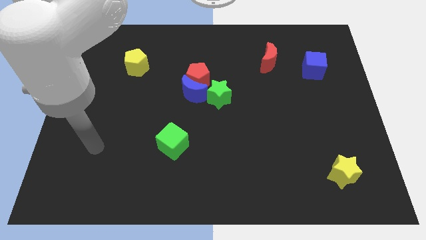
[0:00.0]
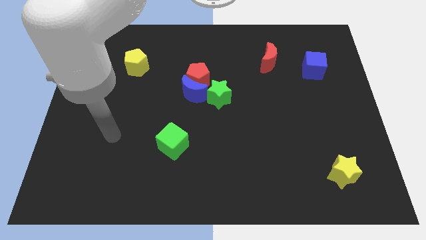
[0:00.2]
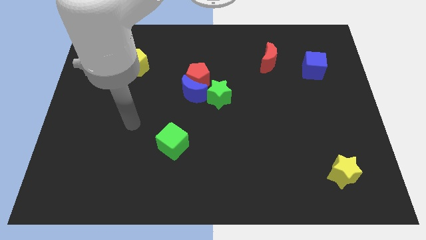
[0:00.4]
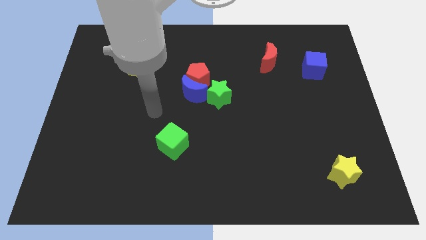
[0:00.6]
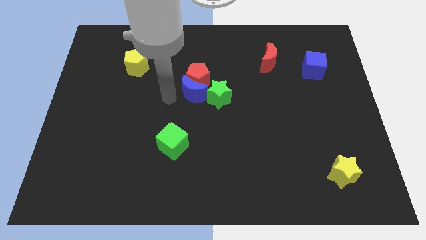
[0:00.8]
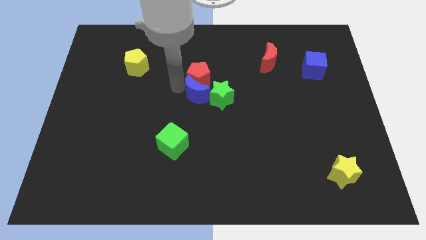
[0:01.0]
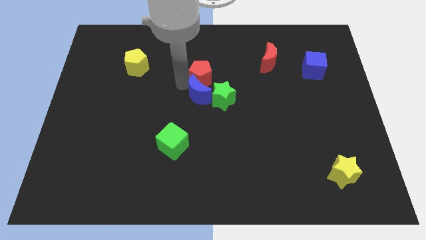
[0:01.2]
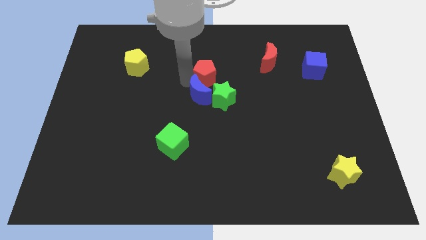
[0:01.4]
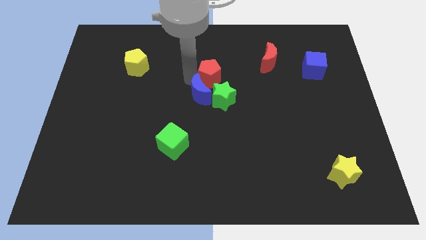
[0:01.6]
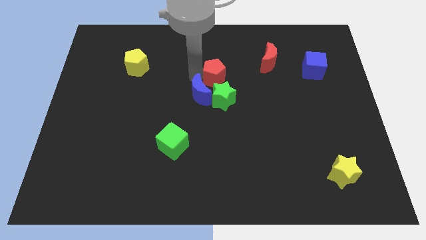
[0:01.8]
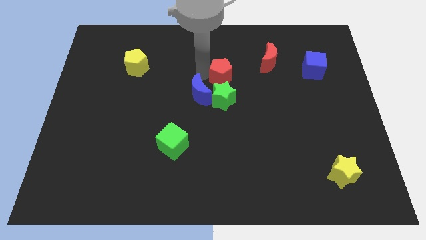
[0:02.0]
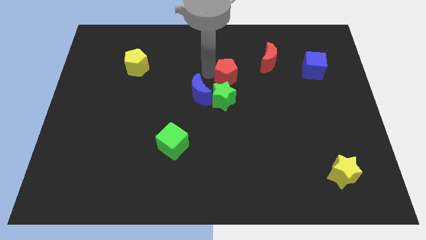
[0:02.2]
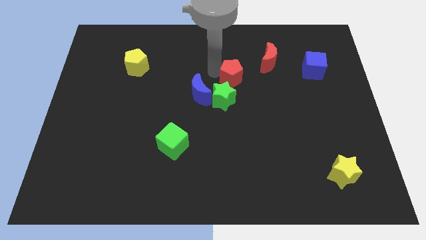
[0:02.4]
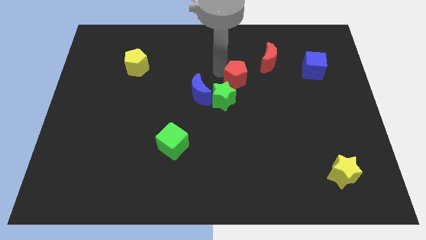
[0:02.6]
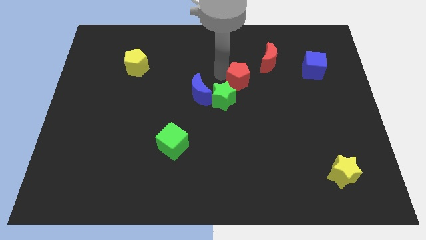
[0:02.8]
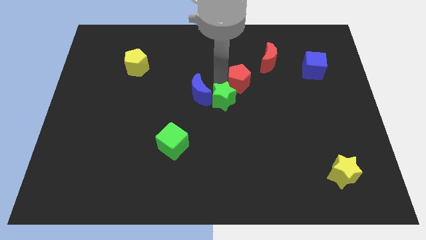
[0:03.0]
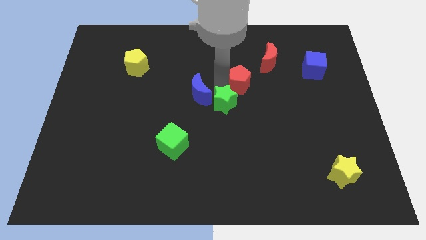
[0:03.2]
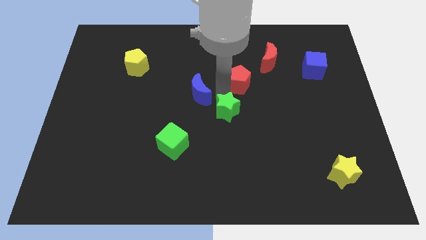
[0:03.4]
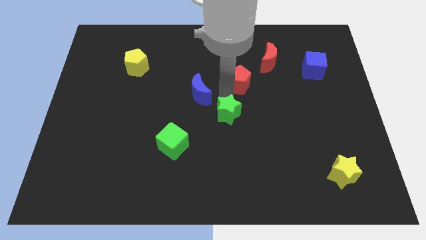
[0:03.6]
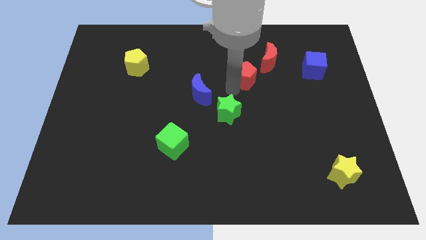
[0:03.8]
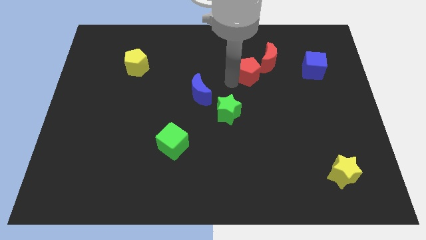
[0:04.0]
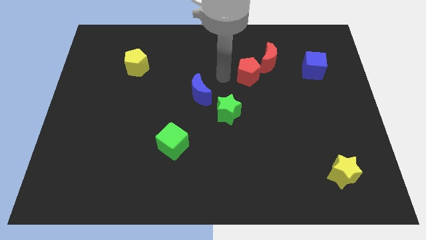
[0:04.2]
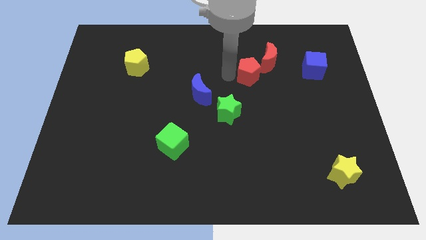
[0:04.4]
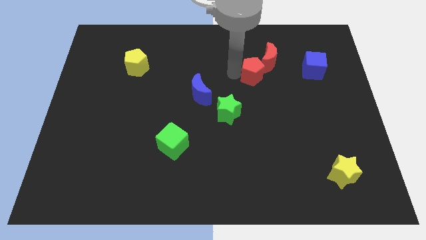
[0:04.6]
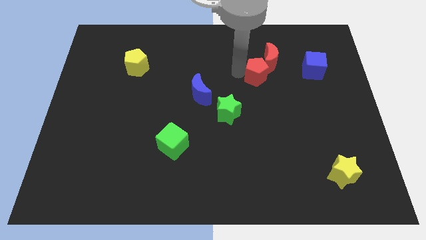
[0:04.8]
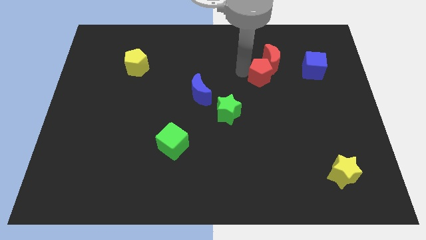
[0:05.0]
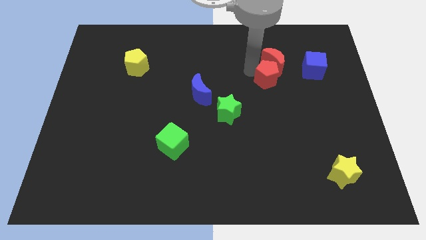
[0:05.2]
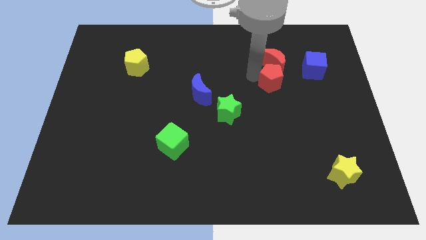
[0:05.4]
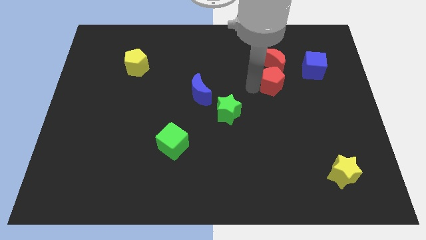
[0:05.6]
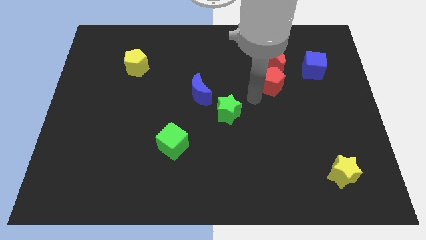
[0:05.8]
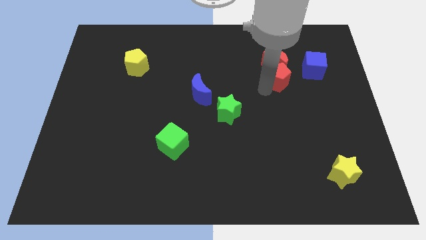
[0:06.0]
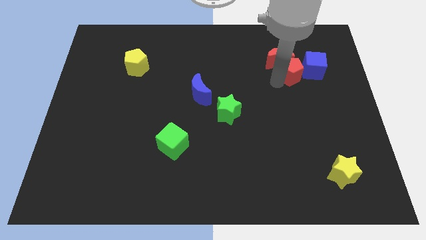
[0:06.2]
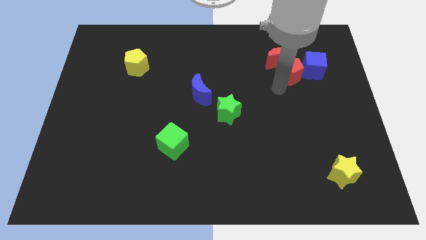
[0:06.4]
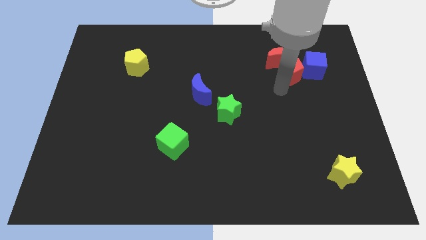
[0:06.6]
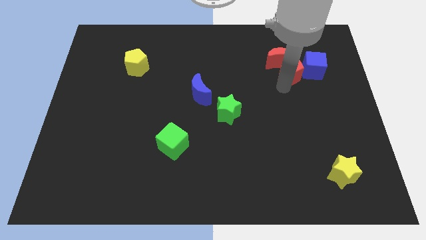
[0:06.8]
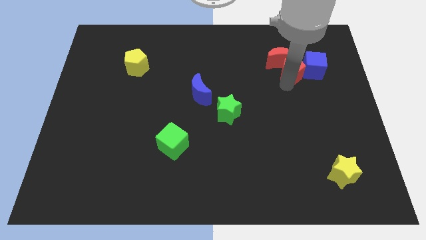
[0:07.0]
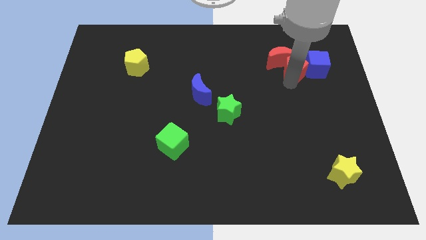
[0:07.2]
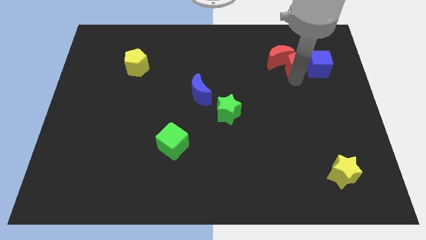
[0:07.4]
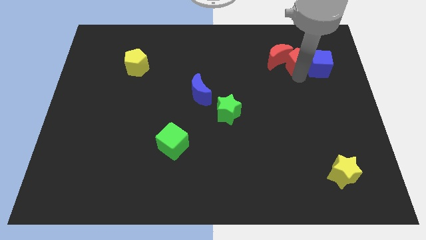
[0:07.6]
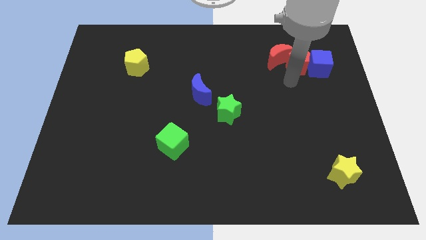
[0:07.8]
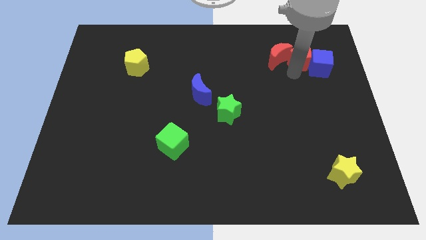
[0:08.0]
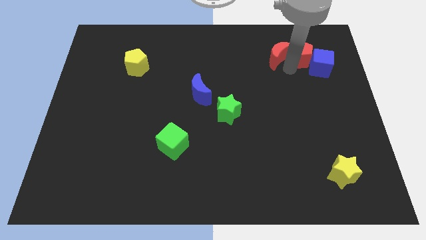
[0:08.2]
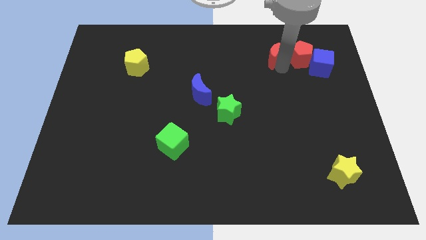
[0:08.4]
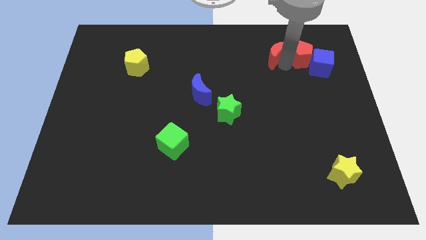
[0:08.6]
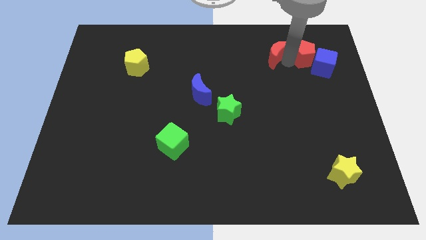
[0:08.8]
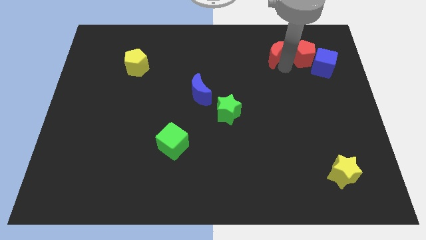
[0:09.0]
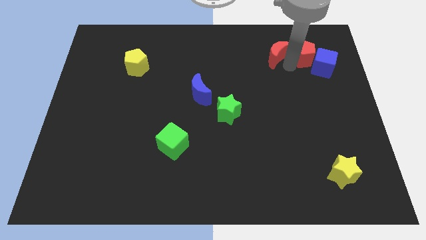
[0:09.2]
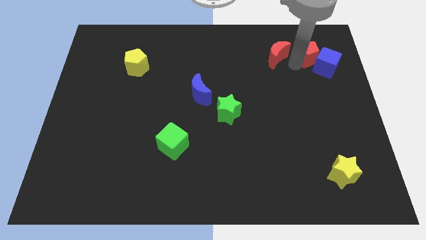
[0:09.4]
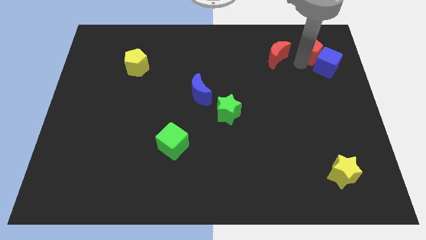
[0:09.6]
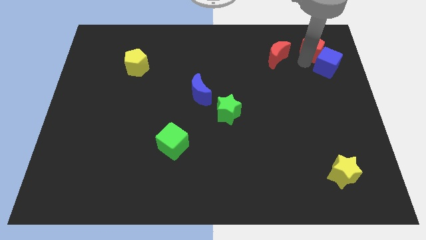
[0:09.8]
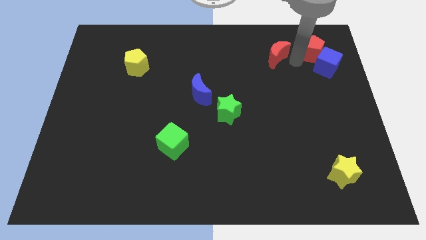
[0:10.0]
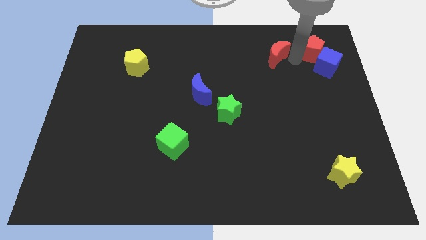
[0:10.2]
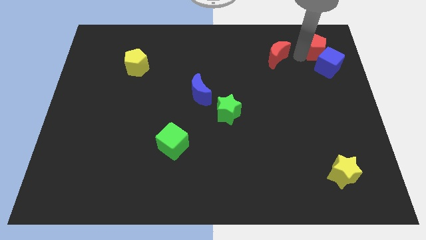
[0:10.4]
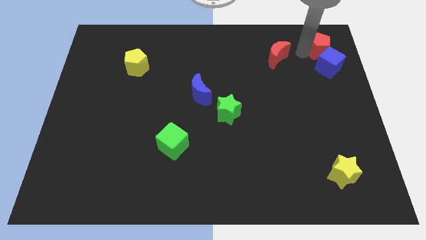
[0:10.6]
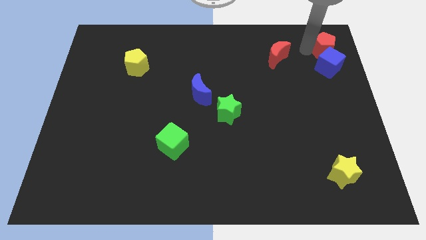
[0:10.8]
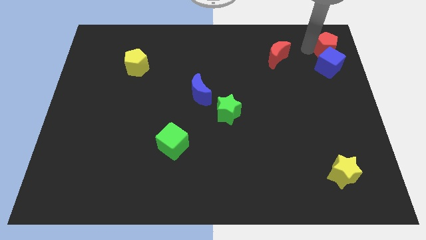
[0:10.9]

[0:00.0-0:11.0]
slide the red pentagon to the upper right corner
